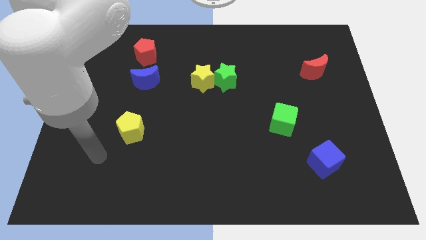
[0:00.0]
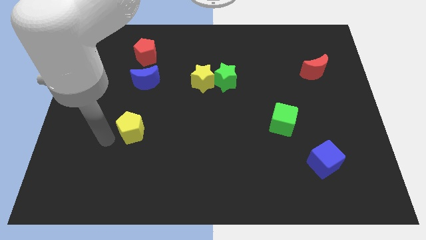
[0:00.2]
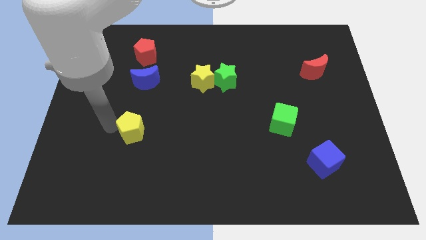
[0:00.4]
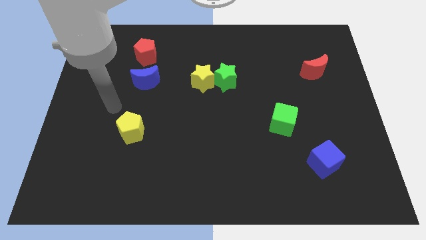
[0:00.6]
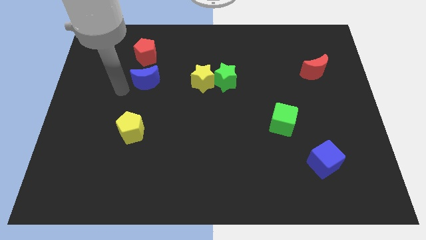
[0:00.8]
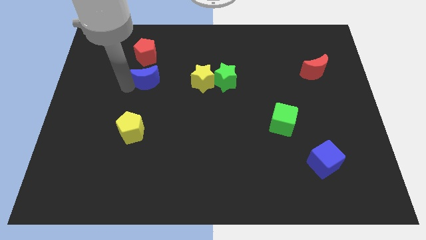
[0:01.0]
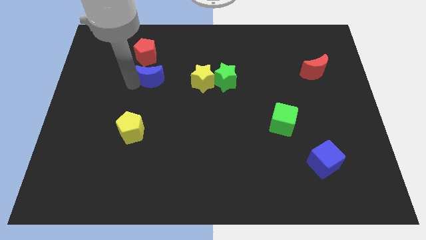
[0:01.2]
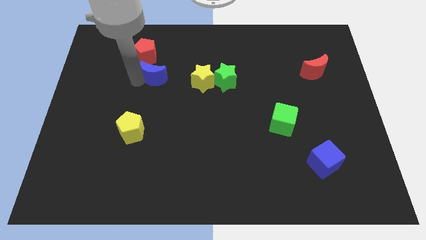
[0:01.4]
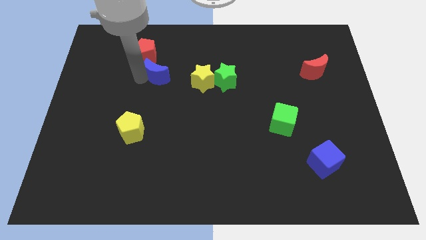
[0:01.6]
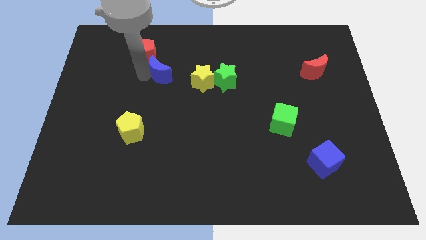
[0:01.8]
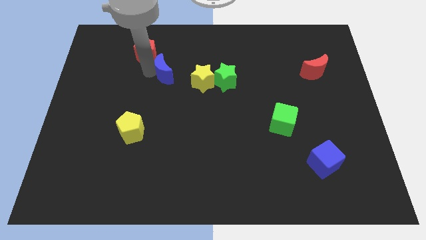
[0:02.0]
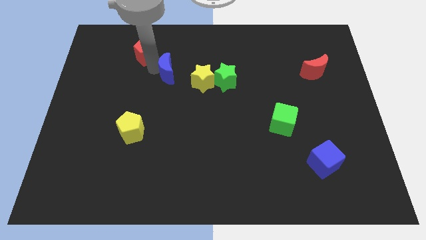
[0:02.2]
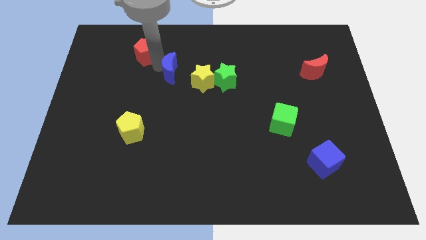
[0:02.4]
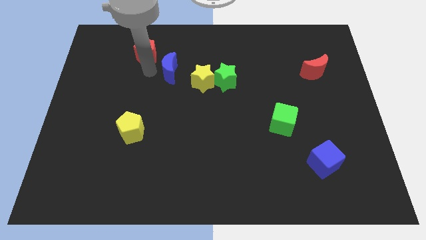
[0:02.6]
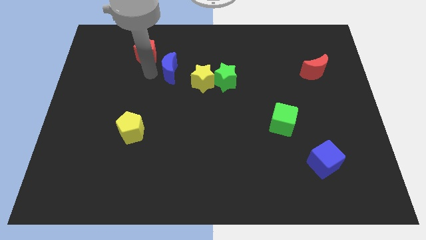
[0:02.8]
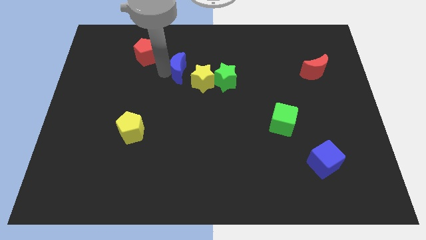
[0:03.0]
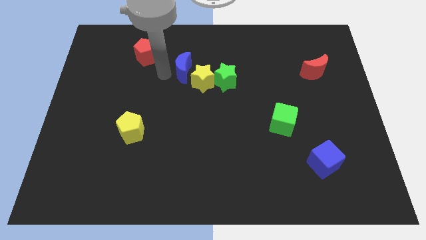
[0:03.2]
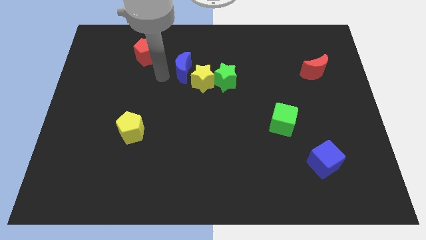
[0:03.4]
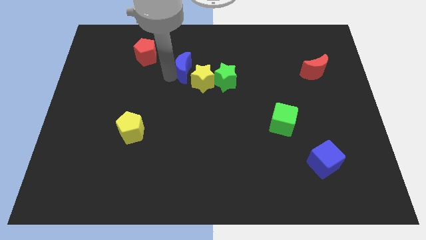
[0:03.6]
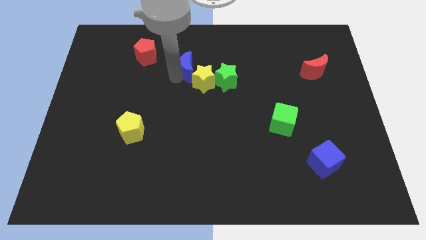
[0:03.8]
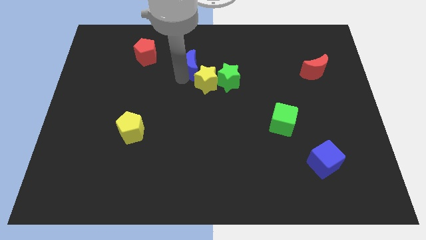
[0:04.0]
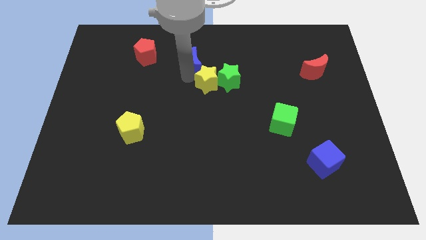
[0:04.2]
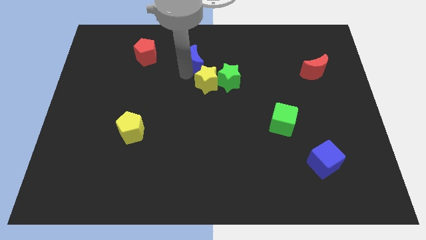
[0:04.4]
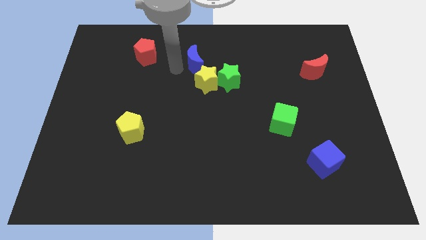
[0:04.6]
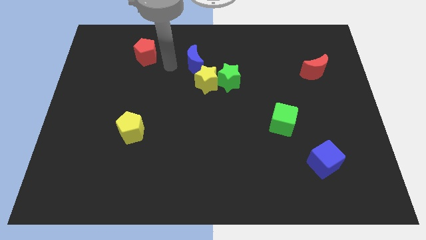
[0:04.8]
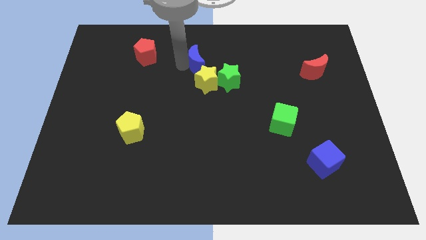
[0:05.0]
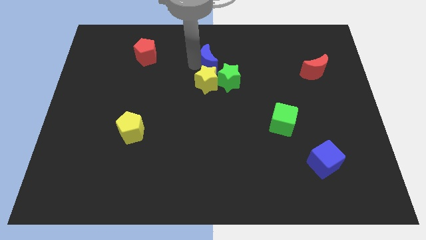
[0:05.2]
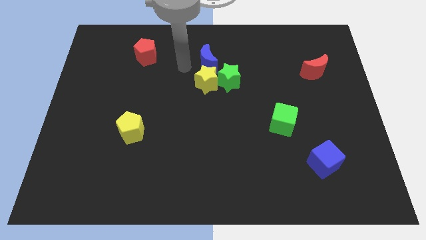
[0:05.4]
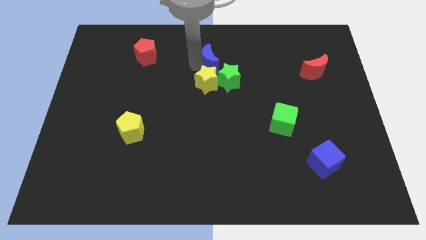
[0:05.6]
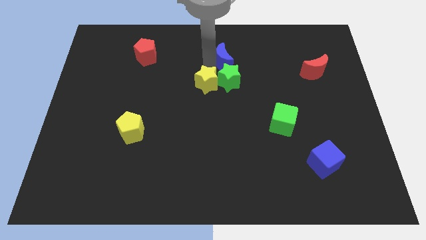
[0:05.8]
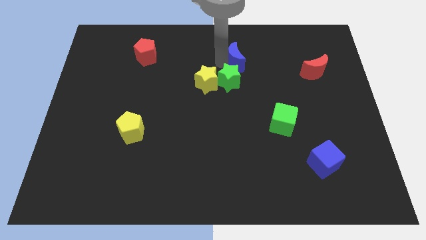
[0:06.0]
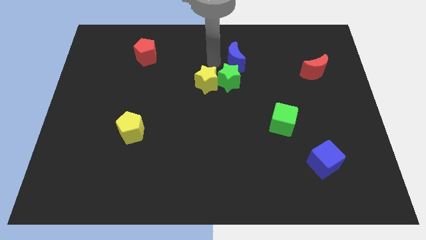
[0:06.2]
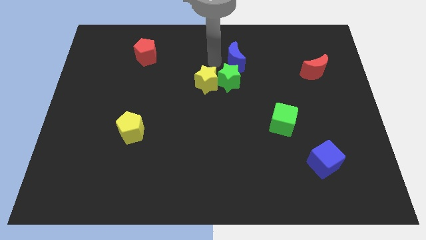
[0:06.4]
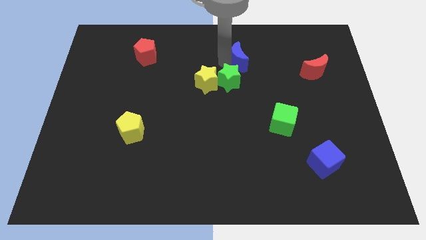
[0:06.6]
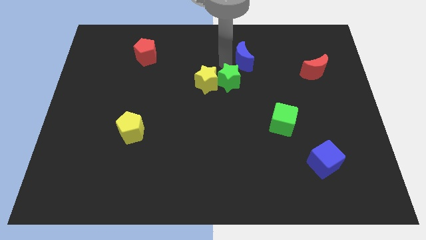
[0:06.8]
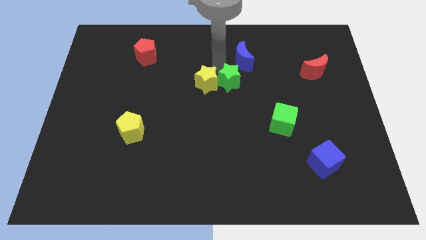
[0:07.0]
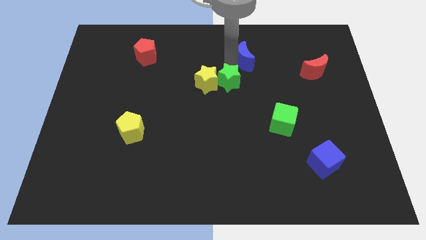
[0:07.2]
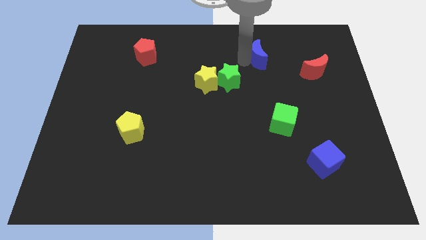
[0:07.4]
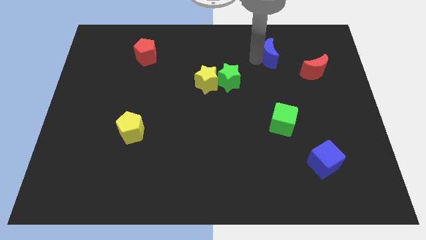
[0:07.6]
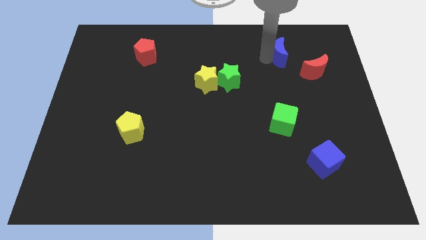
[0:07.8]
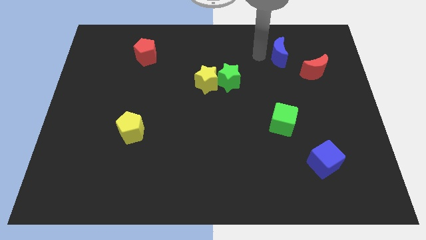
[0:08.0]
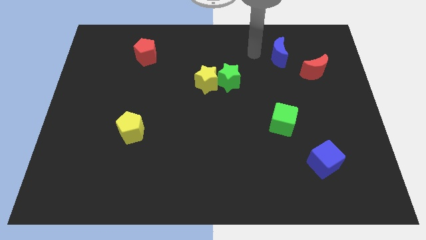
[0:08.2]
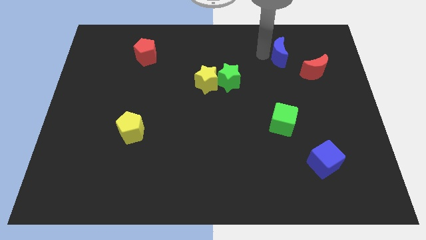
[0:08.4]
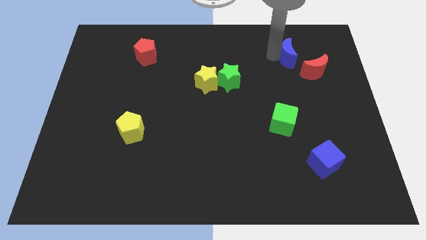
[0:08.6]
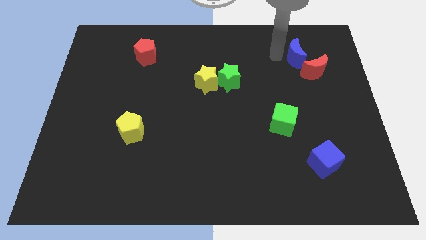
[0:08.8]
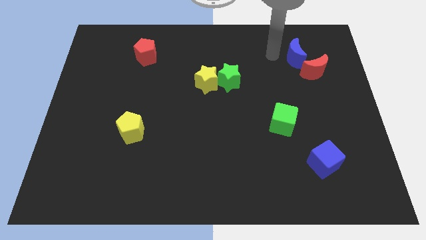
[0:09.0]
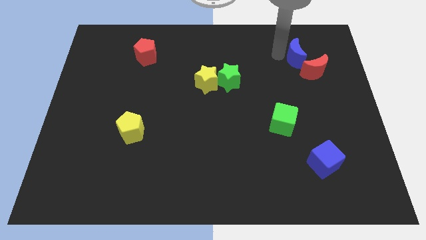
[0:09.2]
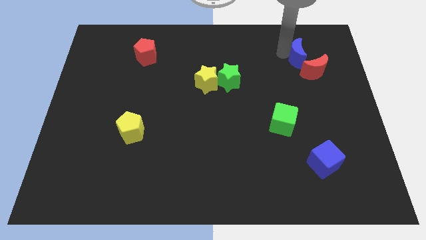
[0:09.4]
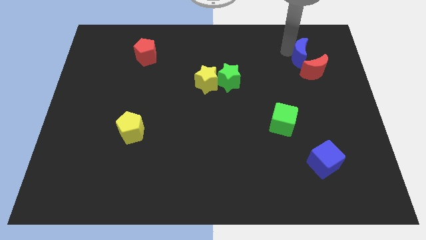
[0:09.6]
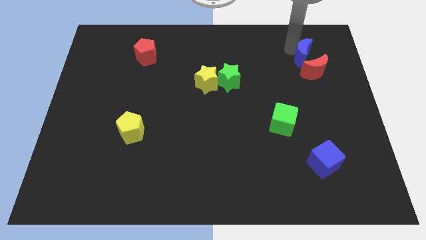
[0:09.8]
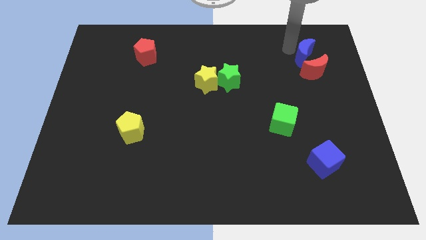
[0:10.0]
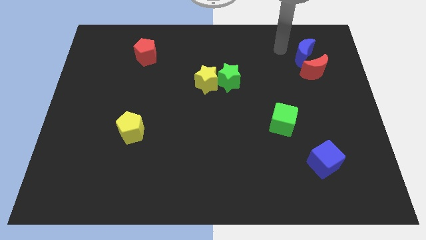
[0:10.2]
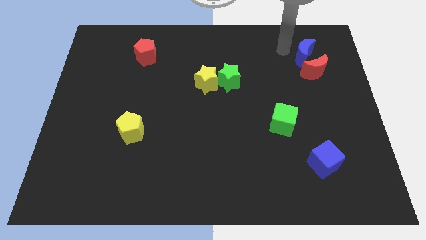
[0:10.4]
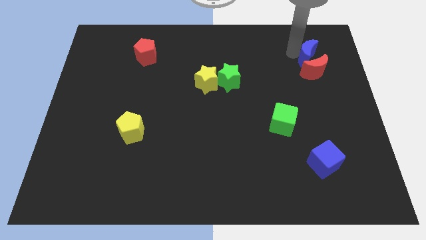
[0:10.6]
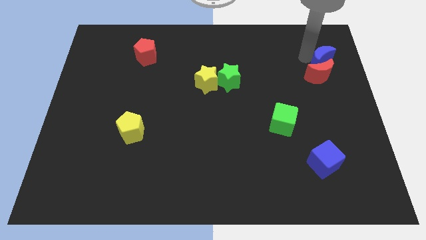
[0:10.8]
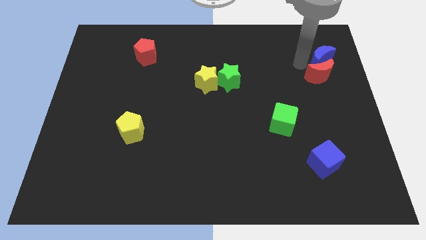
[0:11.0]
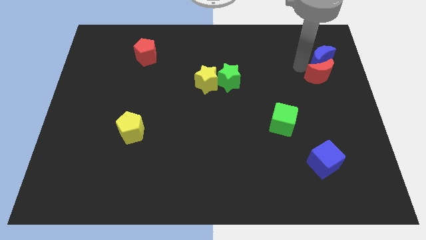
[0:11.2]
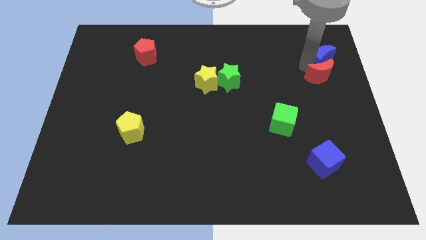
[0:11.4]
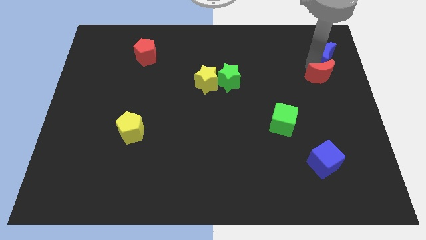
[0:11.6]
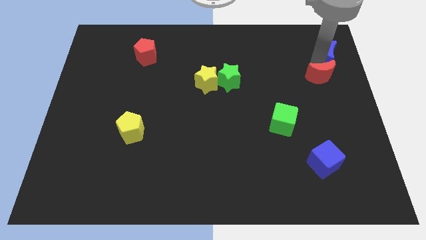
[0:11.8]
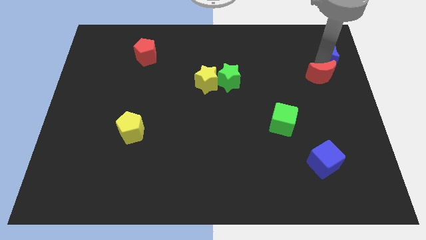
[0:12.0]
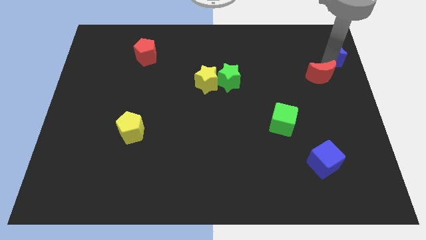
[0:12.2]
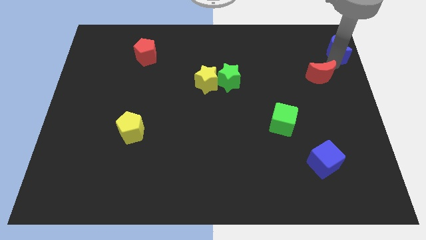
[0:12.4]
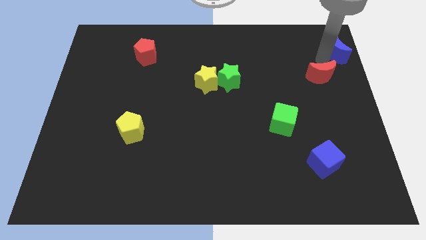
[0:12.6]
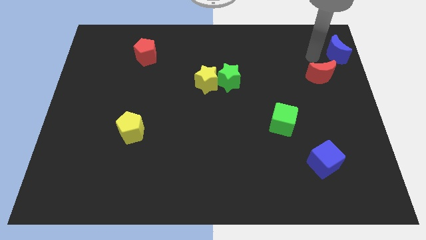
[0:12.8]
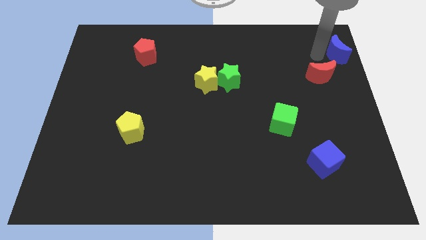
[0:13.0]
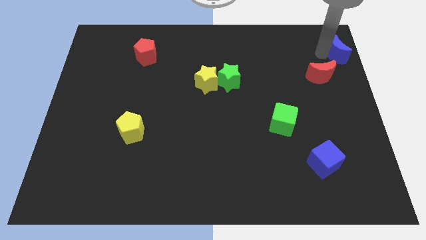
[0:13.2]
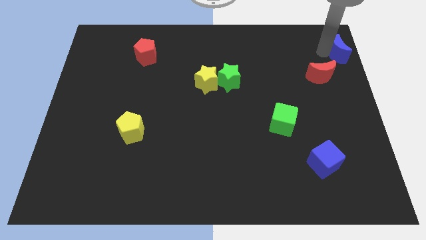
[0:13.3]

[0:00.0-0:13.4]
move the blue moon to the upper right corner
